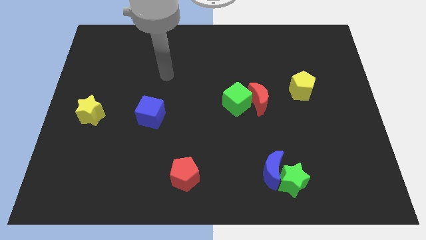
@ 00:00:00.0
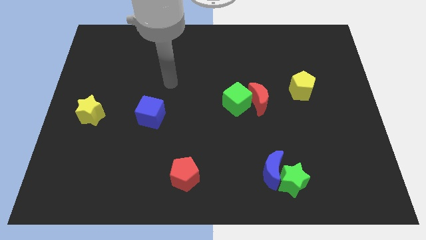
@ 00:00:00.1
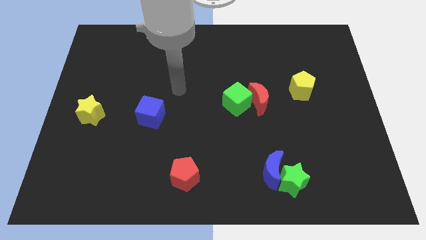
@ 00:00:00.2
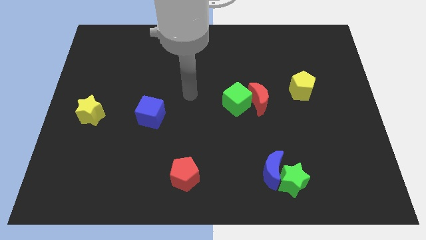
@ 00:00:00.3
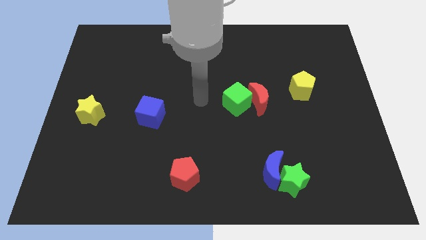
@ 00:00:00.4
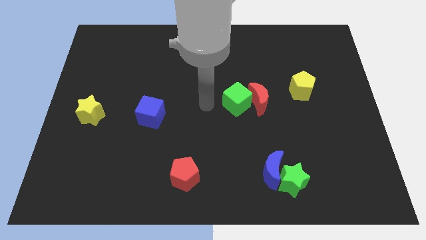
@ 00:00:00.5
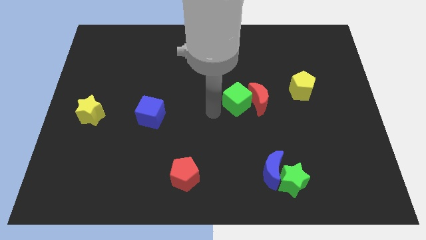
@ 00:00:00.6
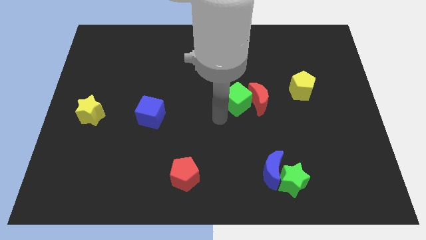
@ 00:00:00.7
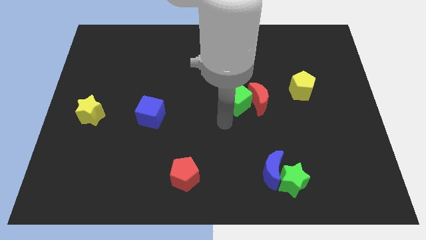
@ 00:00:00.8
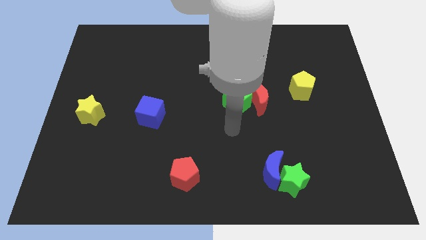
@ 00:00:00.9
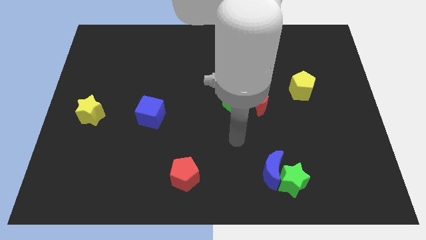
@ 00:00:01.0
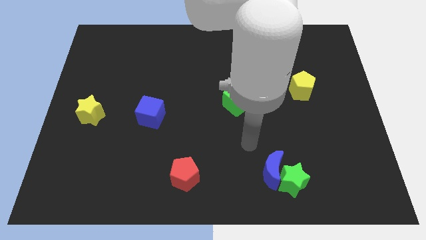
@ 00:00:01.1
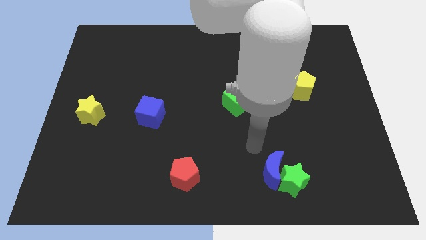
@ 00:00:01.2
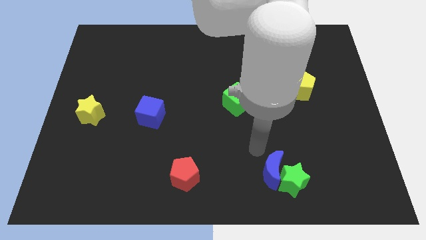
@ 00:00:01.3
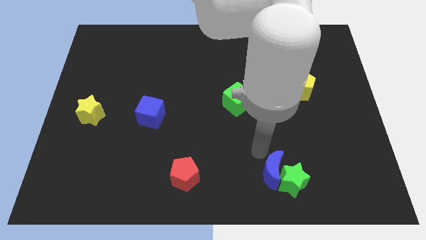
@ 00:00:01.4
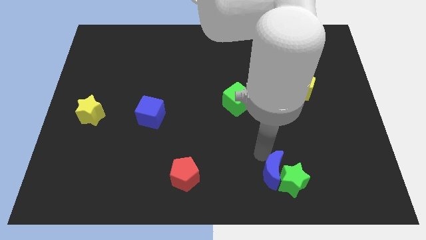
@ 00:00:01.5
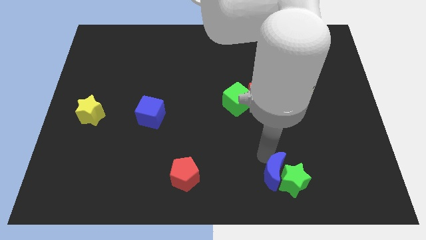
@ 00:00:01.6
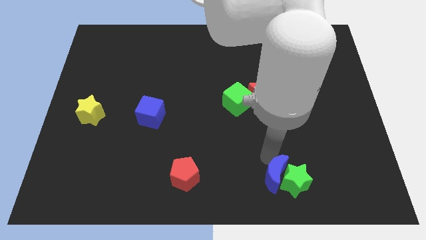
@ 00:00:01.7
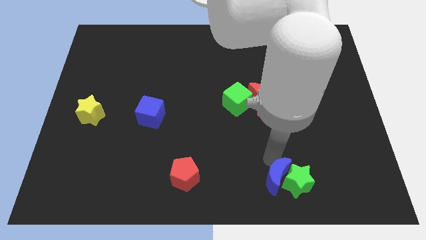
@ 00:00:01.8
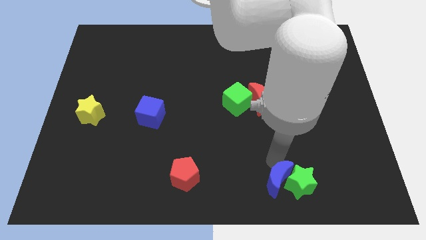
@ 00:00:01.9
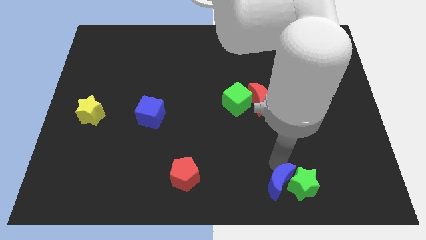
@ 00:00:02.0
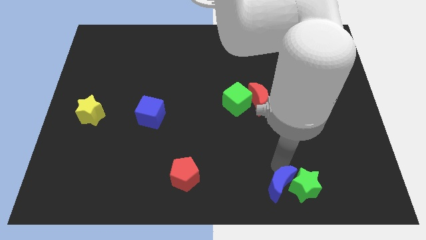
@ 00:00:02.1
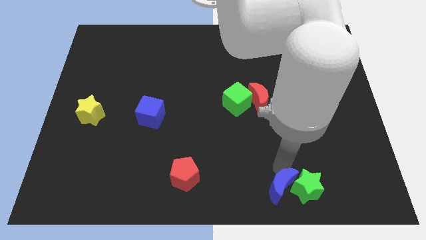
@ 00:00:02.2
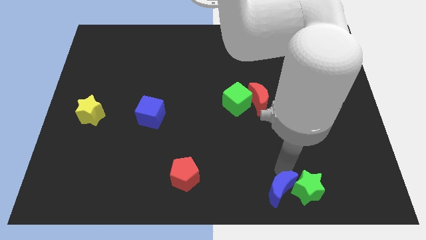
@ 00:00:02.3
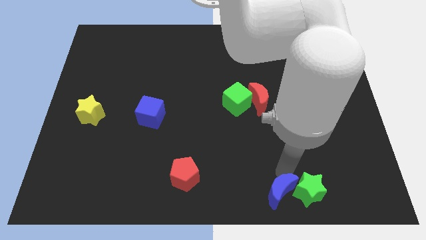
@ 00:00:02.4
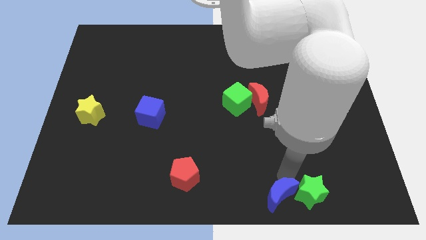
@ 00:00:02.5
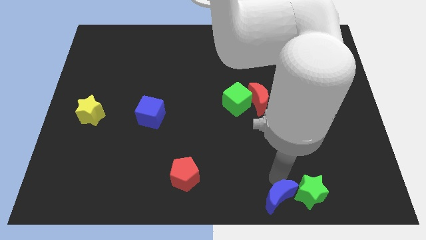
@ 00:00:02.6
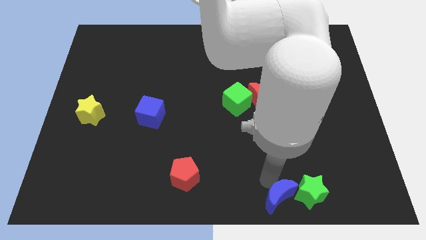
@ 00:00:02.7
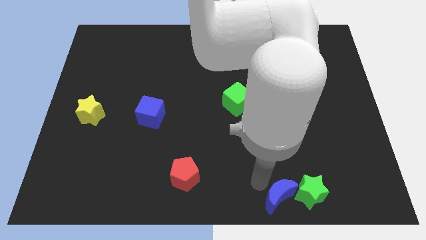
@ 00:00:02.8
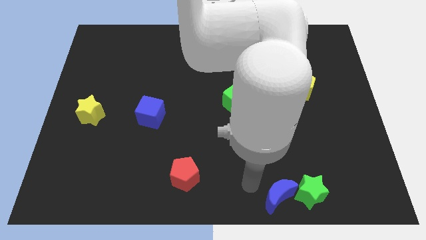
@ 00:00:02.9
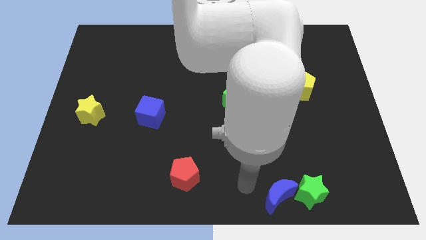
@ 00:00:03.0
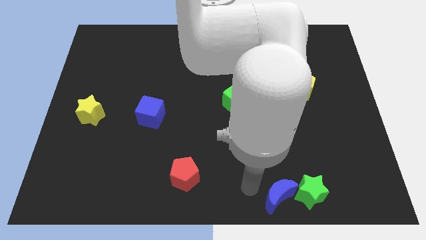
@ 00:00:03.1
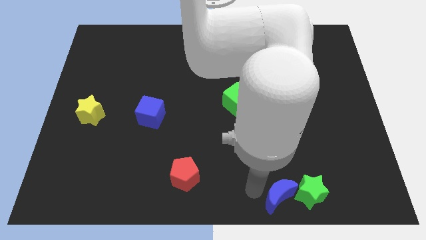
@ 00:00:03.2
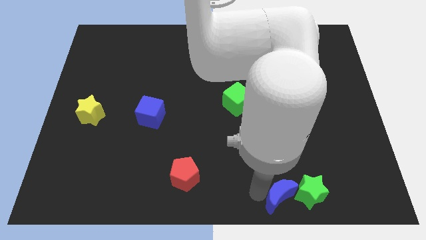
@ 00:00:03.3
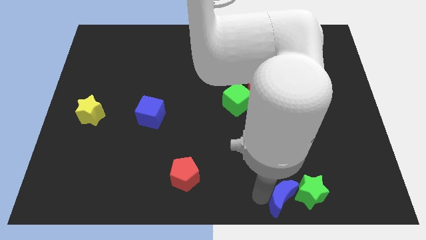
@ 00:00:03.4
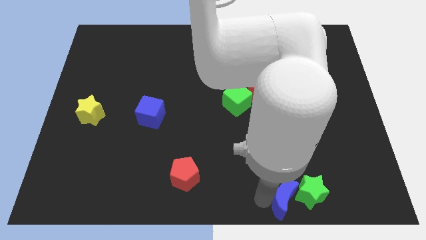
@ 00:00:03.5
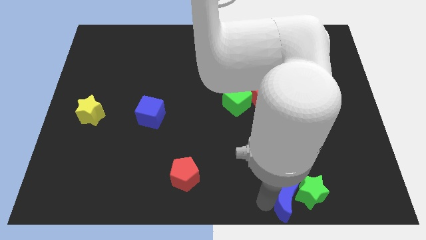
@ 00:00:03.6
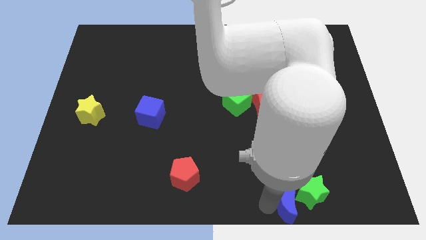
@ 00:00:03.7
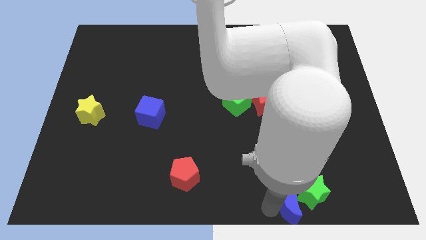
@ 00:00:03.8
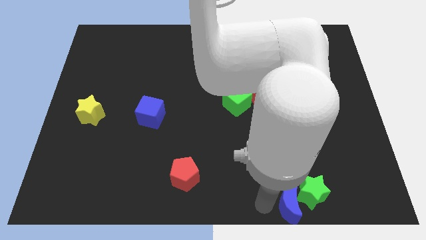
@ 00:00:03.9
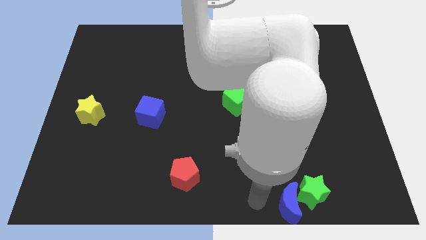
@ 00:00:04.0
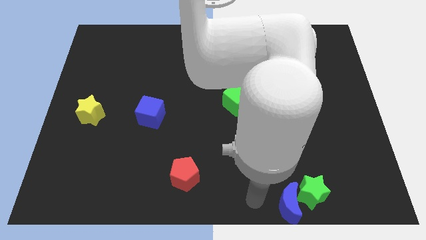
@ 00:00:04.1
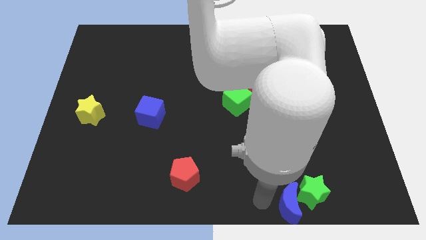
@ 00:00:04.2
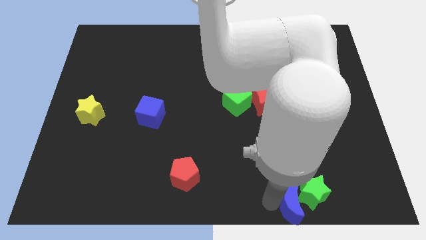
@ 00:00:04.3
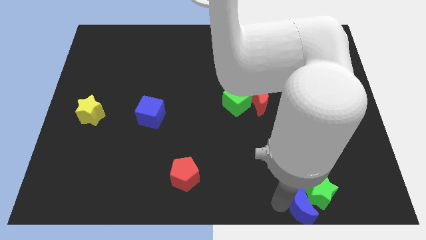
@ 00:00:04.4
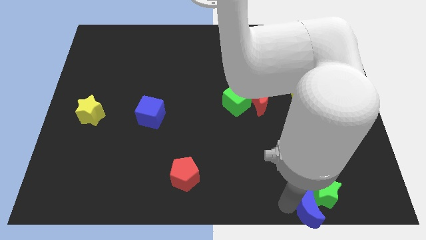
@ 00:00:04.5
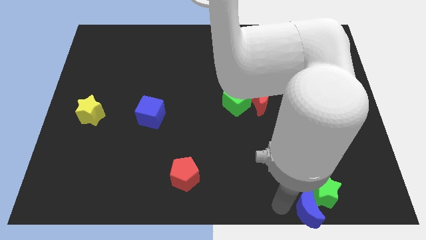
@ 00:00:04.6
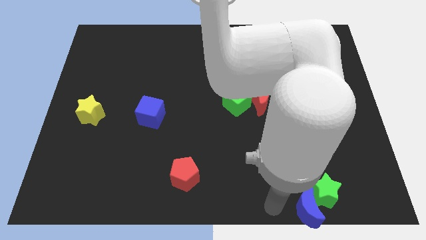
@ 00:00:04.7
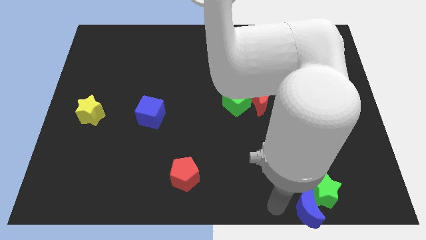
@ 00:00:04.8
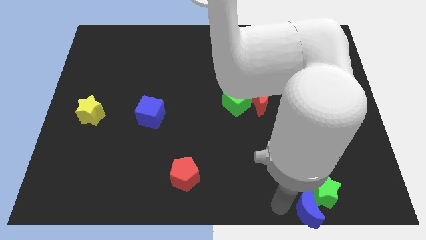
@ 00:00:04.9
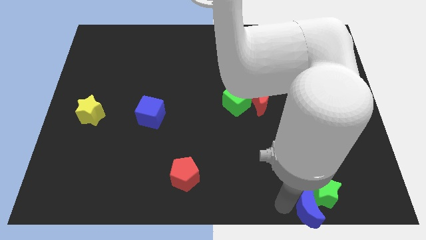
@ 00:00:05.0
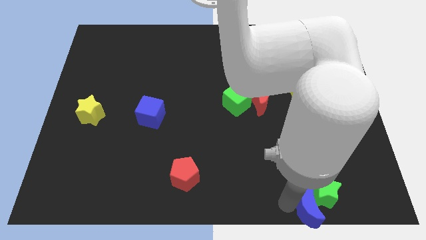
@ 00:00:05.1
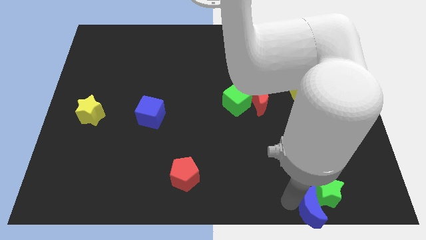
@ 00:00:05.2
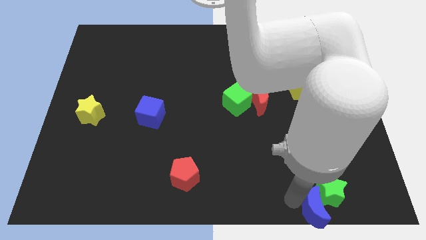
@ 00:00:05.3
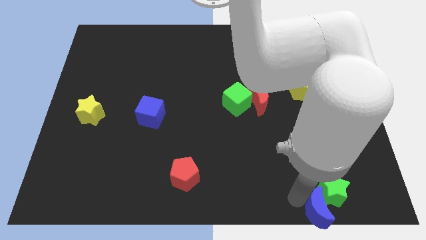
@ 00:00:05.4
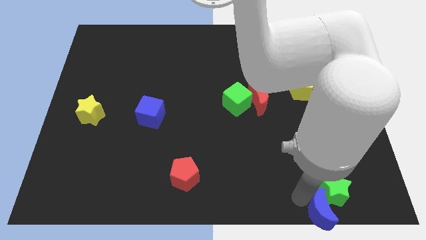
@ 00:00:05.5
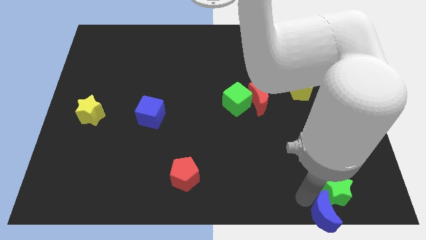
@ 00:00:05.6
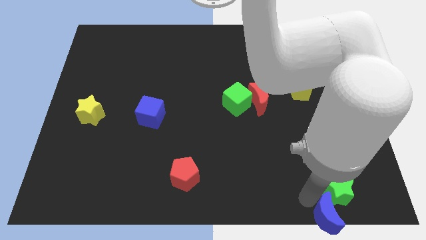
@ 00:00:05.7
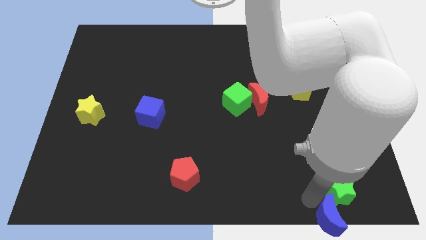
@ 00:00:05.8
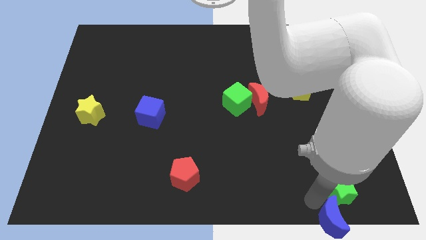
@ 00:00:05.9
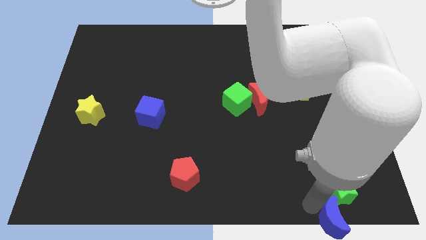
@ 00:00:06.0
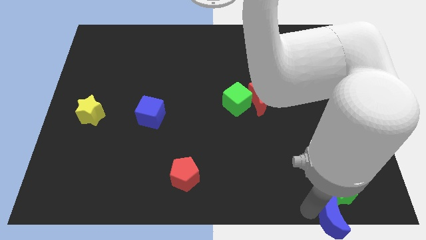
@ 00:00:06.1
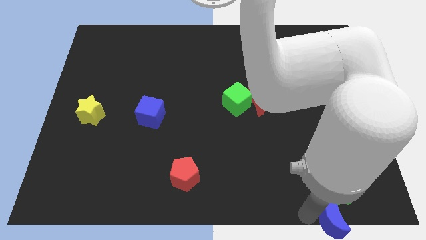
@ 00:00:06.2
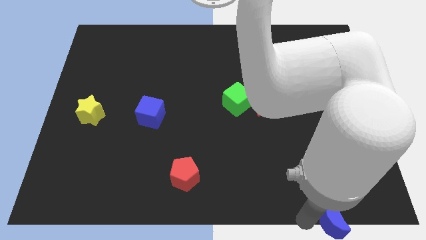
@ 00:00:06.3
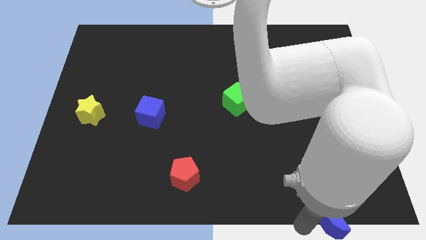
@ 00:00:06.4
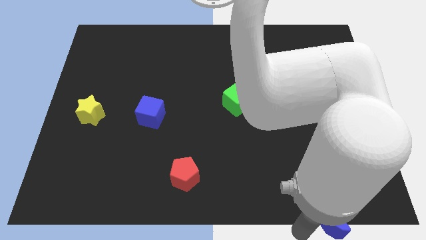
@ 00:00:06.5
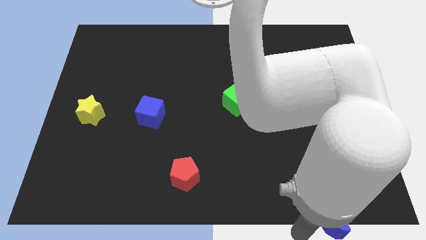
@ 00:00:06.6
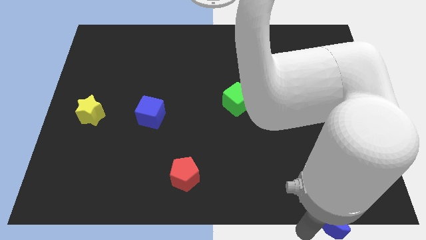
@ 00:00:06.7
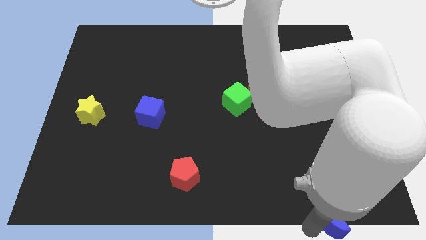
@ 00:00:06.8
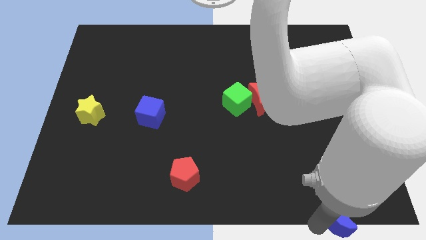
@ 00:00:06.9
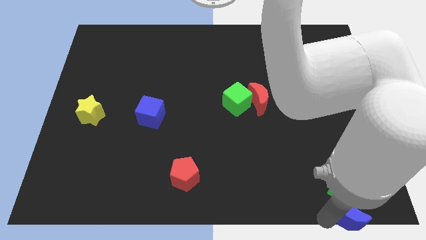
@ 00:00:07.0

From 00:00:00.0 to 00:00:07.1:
move the blue moon to the bottom right corner
